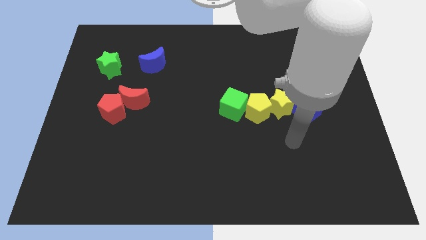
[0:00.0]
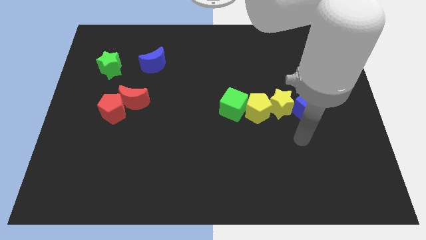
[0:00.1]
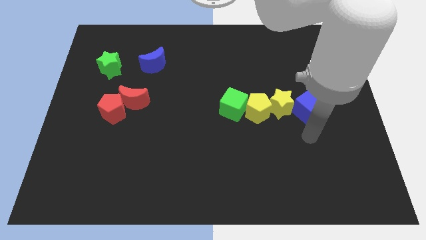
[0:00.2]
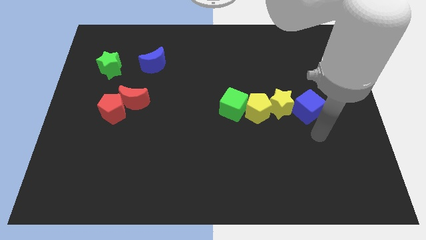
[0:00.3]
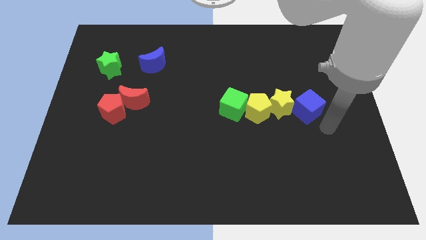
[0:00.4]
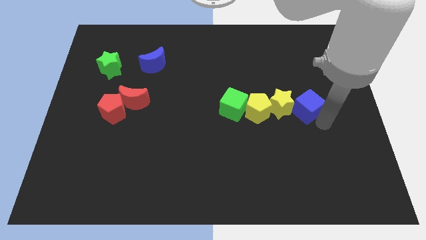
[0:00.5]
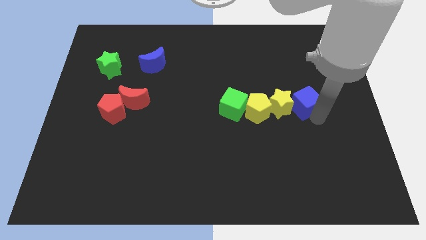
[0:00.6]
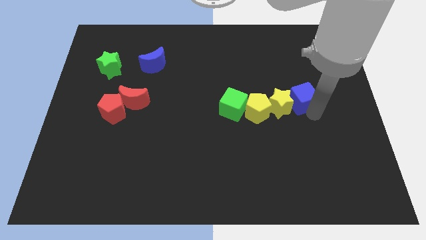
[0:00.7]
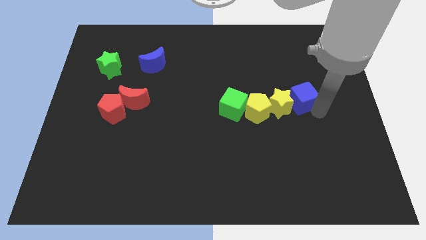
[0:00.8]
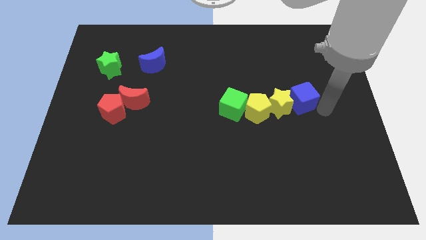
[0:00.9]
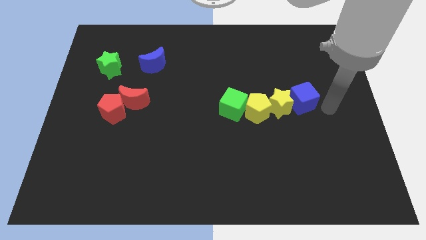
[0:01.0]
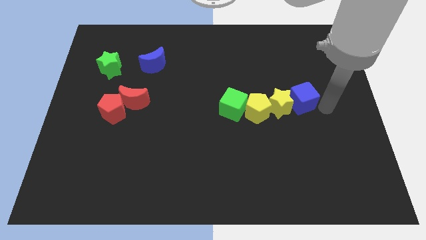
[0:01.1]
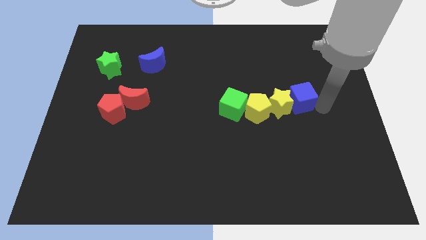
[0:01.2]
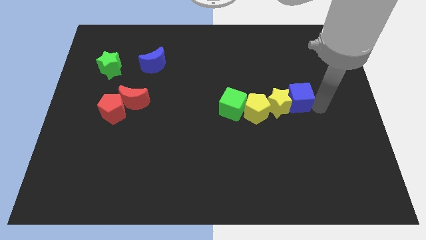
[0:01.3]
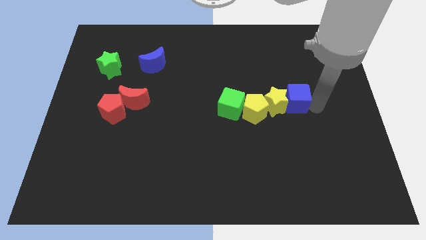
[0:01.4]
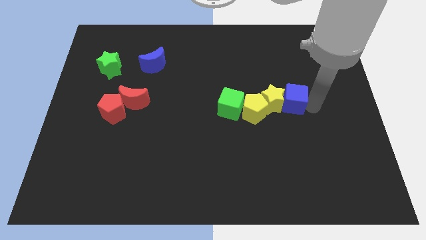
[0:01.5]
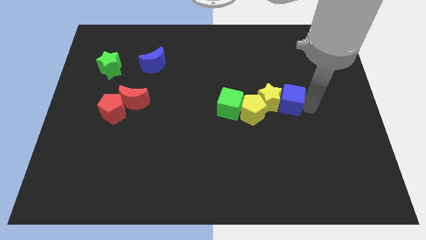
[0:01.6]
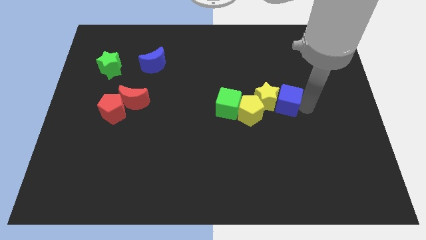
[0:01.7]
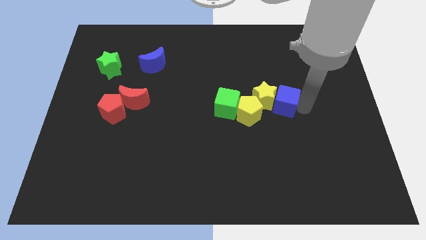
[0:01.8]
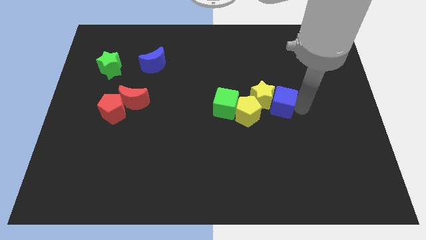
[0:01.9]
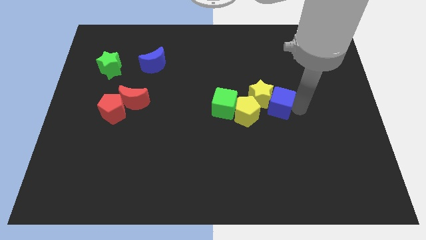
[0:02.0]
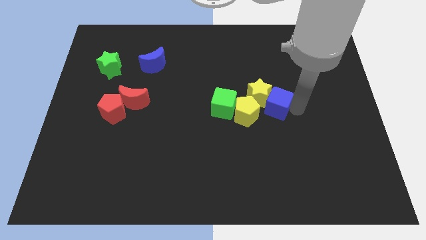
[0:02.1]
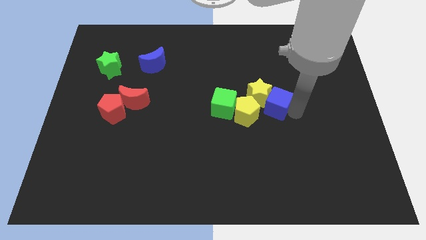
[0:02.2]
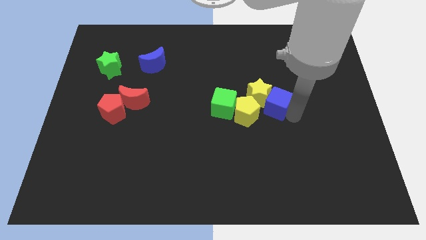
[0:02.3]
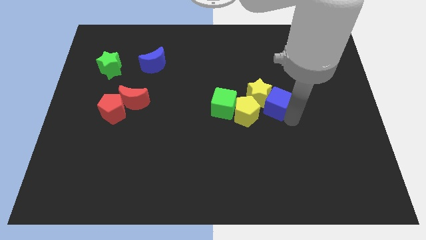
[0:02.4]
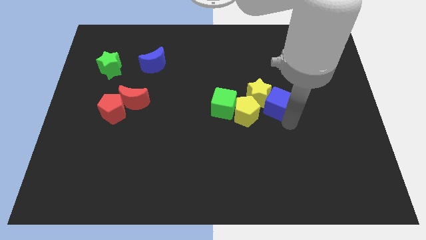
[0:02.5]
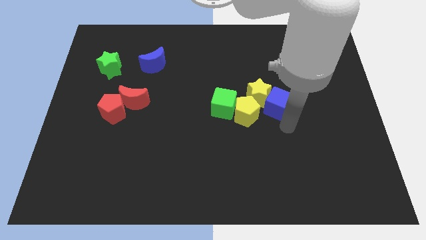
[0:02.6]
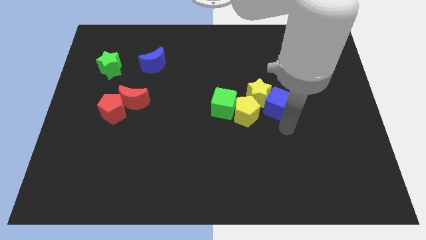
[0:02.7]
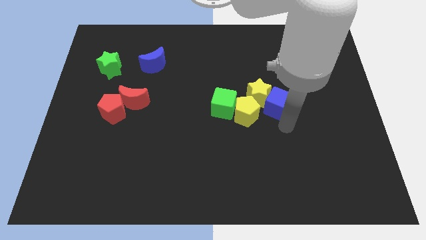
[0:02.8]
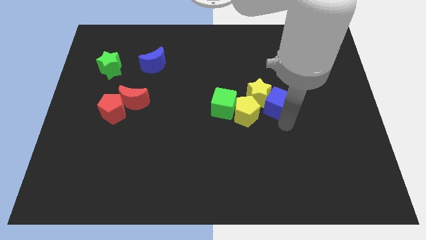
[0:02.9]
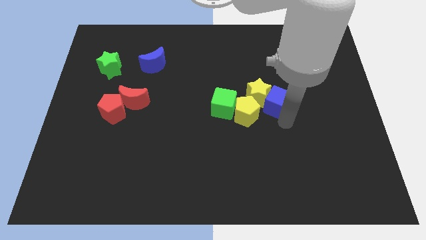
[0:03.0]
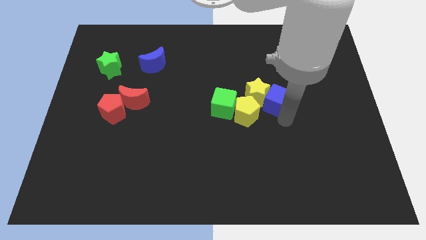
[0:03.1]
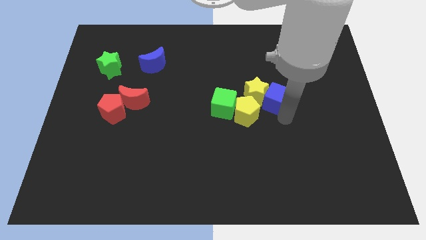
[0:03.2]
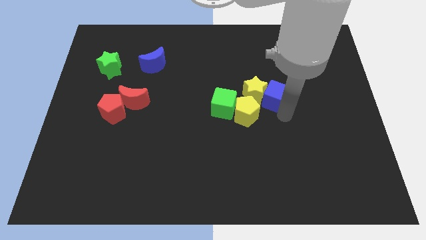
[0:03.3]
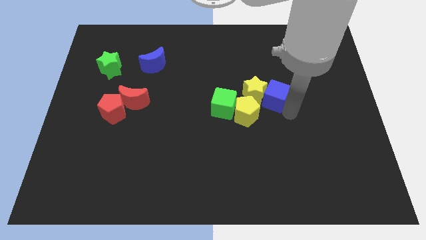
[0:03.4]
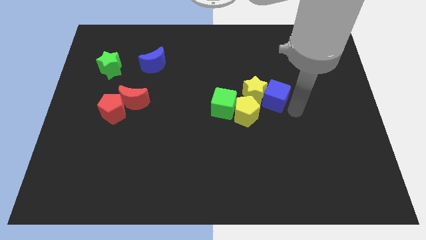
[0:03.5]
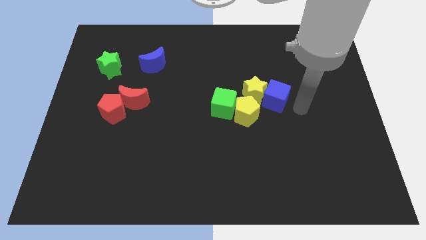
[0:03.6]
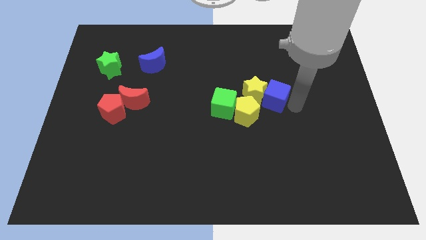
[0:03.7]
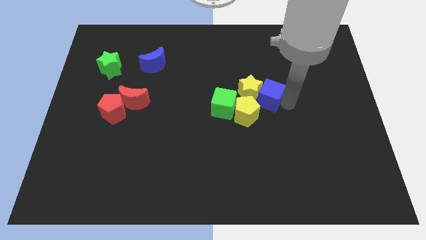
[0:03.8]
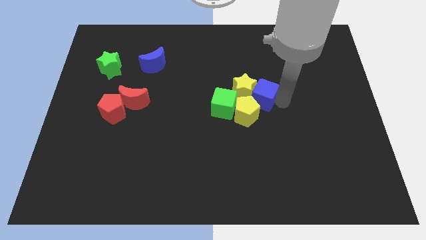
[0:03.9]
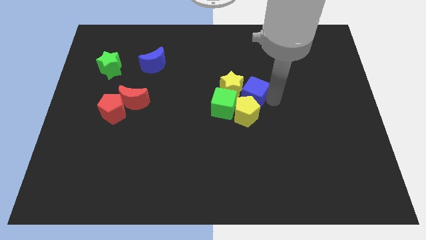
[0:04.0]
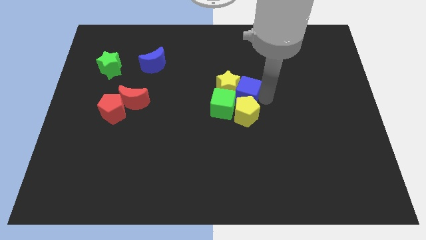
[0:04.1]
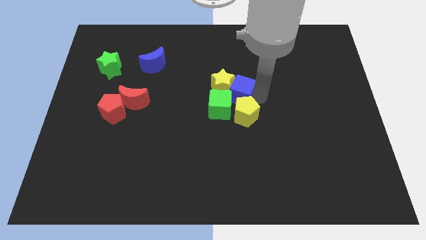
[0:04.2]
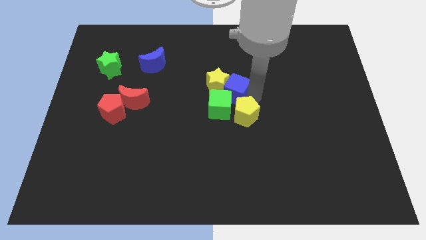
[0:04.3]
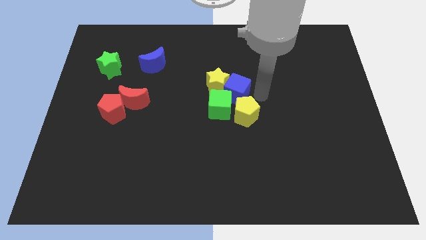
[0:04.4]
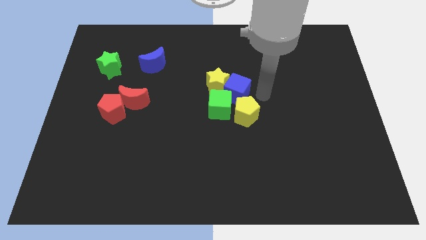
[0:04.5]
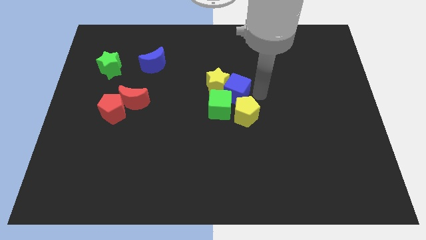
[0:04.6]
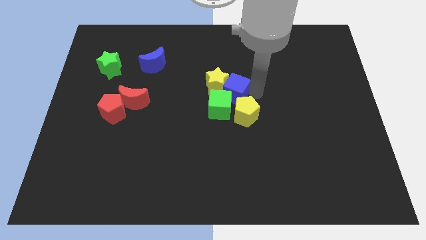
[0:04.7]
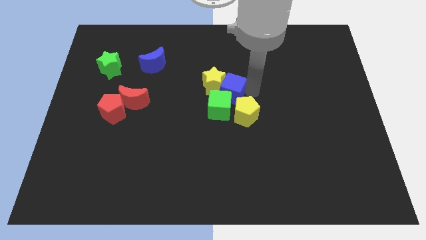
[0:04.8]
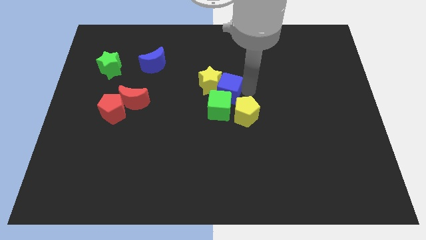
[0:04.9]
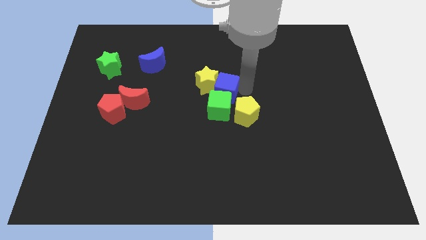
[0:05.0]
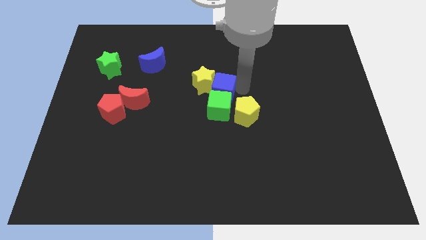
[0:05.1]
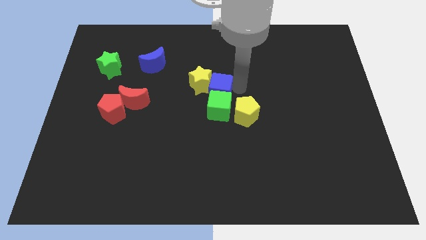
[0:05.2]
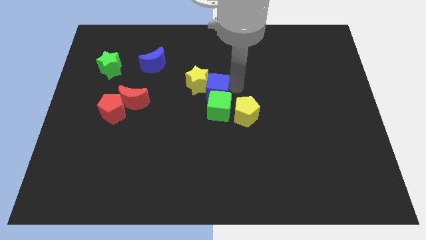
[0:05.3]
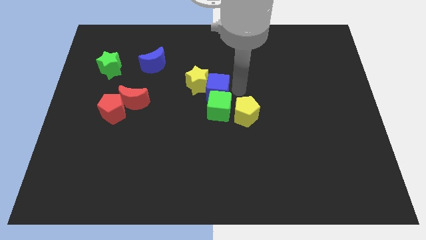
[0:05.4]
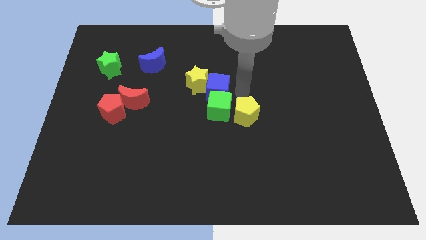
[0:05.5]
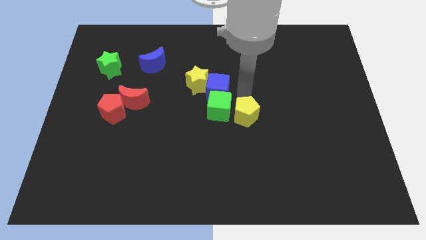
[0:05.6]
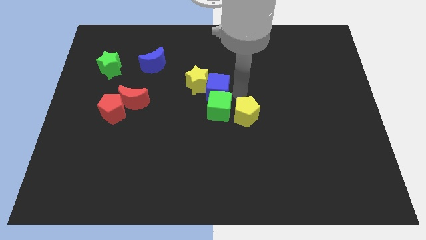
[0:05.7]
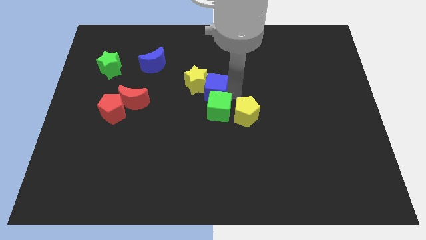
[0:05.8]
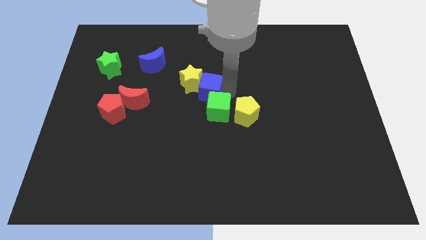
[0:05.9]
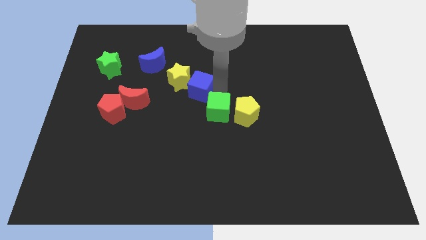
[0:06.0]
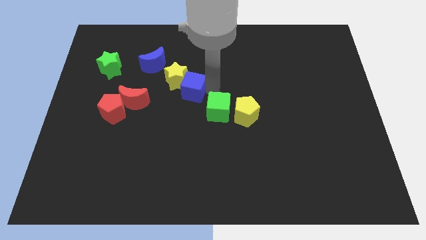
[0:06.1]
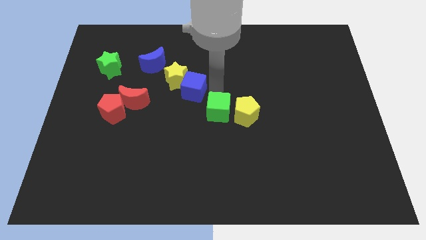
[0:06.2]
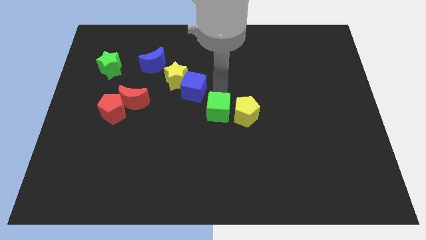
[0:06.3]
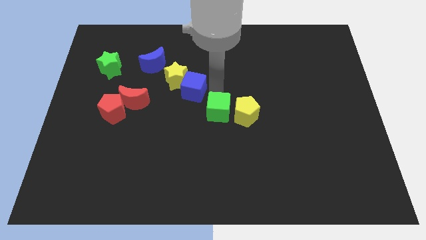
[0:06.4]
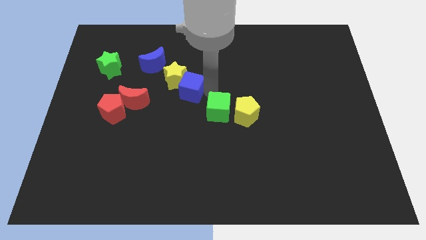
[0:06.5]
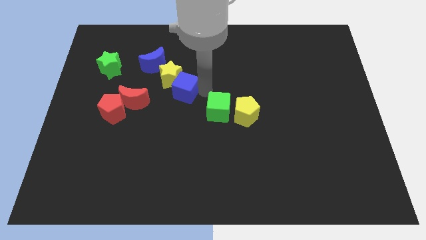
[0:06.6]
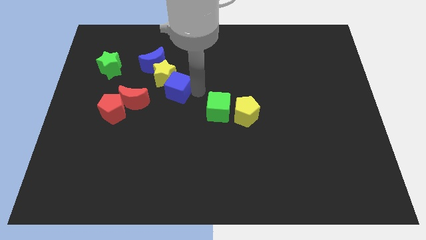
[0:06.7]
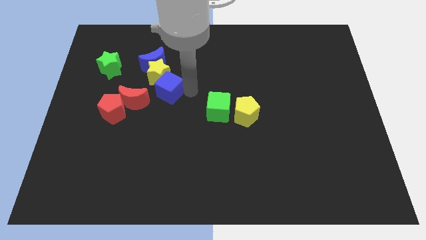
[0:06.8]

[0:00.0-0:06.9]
put the blue cube diagonally up and to the right of the red moon

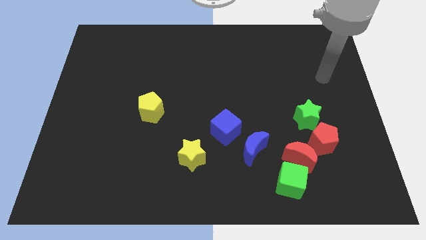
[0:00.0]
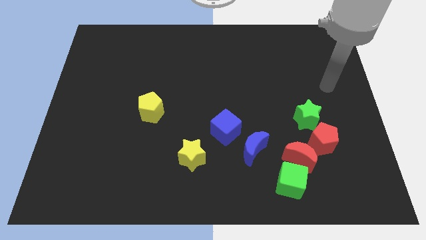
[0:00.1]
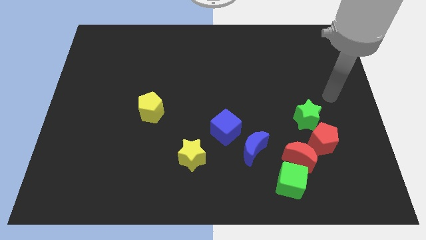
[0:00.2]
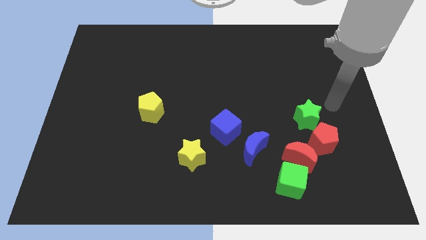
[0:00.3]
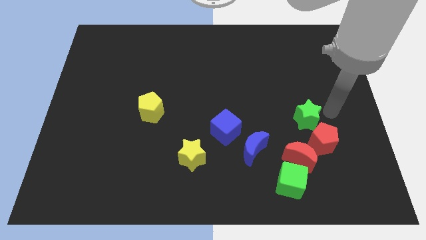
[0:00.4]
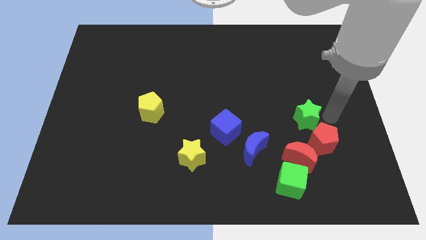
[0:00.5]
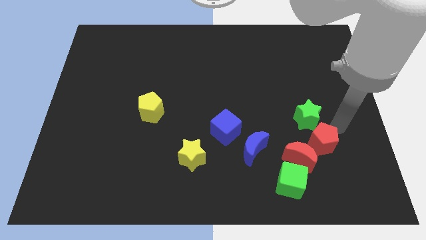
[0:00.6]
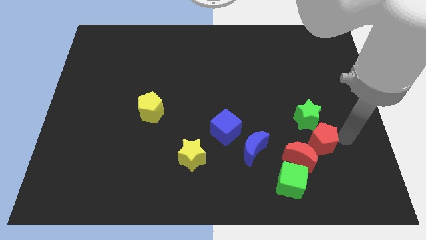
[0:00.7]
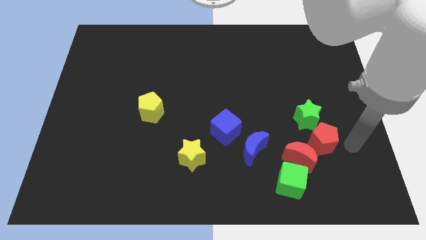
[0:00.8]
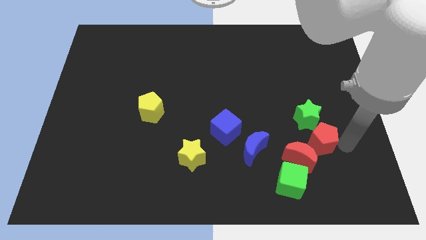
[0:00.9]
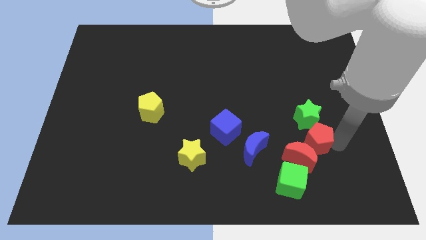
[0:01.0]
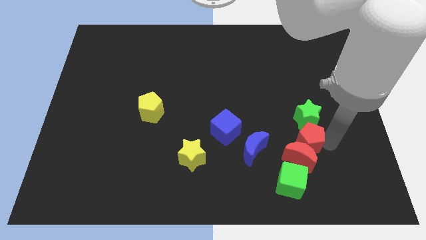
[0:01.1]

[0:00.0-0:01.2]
move the red pentagon to the bottom left side of the green star
